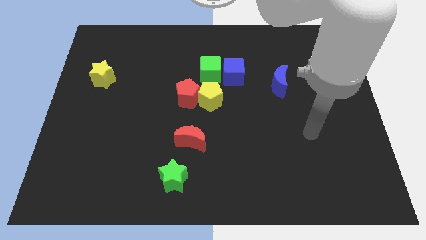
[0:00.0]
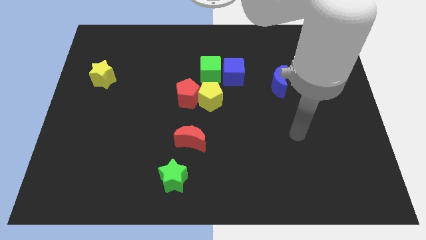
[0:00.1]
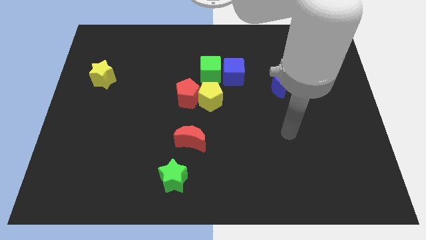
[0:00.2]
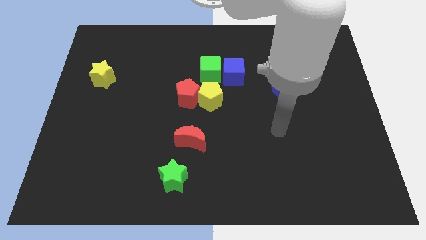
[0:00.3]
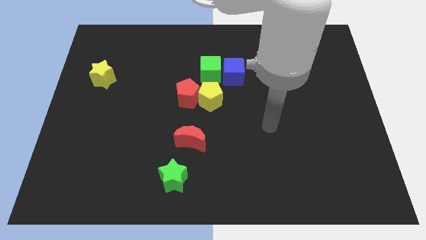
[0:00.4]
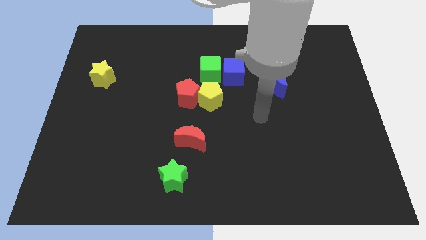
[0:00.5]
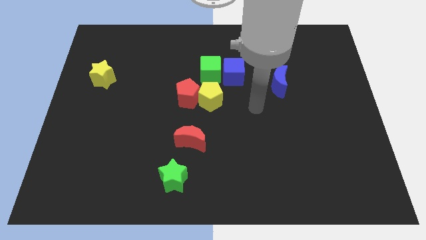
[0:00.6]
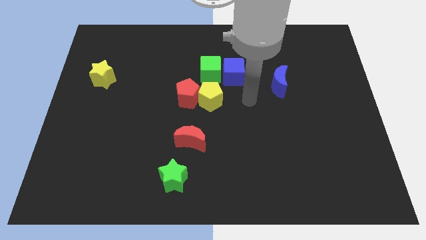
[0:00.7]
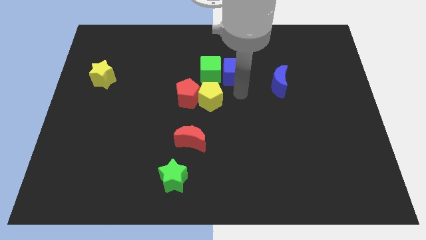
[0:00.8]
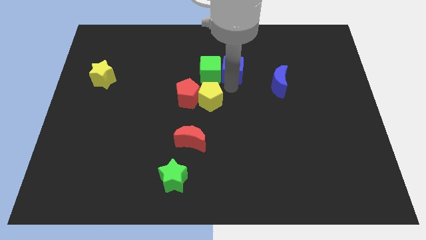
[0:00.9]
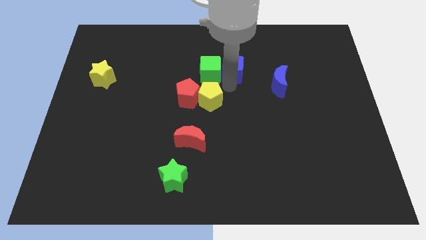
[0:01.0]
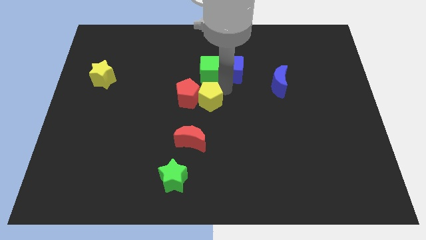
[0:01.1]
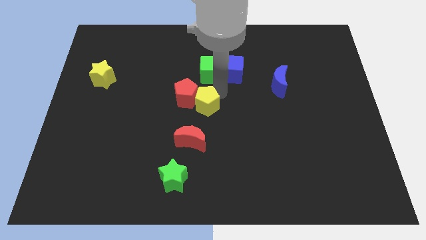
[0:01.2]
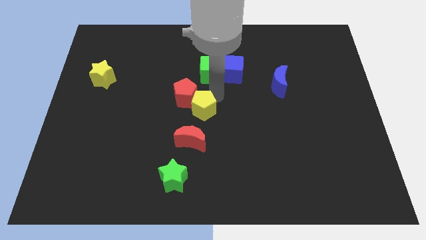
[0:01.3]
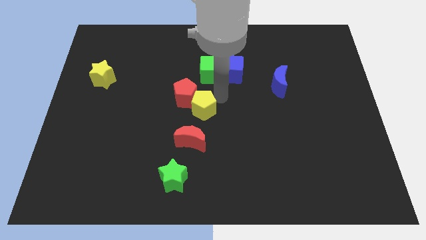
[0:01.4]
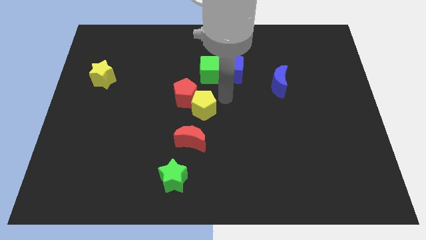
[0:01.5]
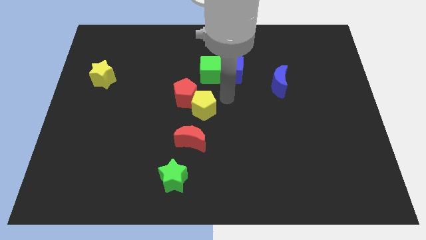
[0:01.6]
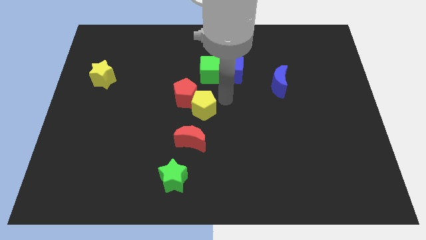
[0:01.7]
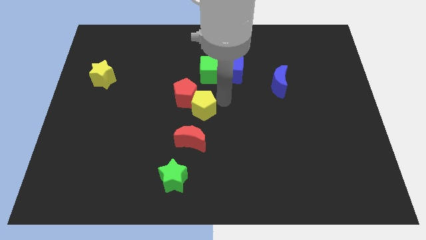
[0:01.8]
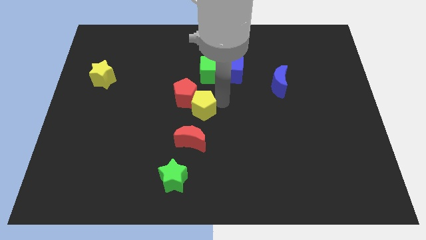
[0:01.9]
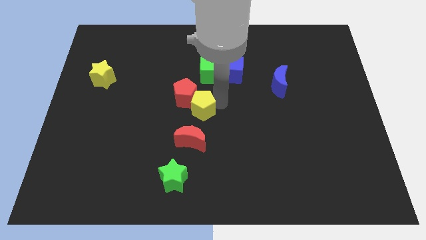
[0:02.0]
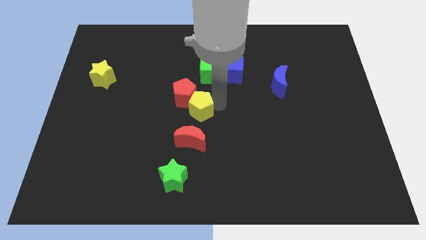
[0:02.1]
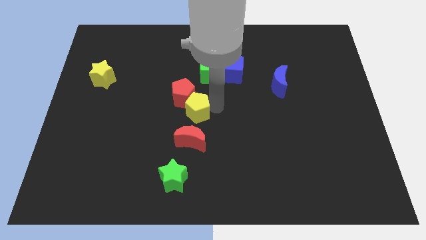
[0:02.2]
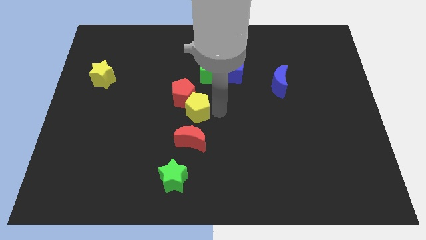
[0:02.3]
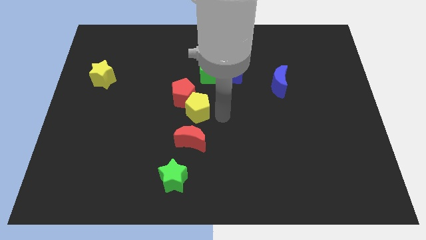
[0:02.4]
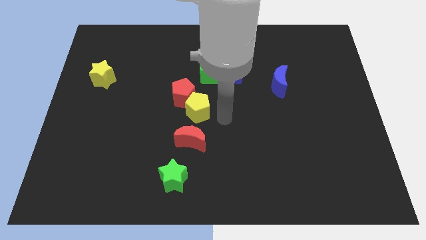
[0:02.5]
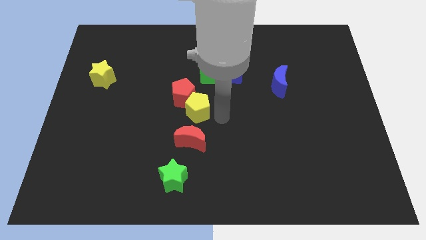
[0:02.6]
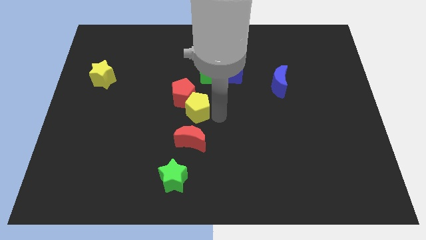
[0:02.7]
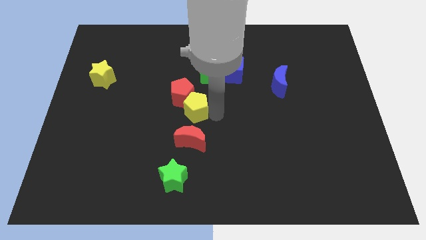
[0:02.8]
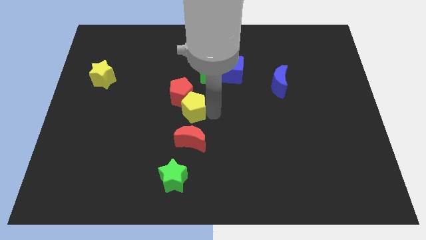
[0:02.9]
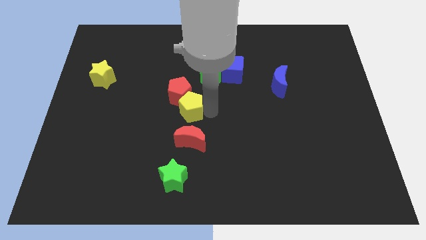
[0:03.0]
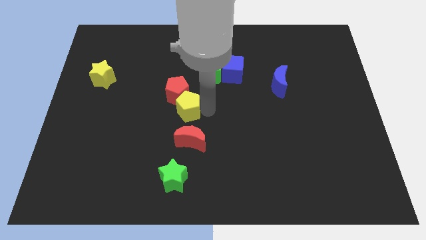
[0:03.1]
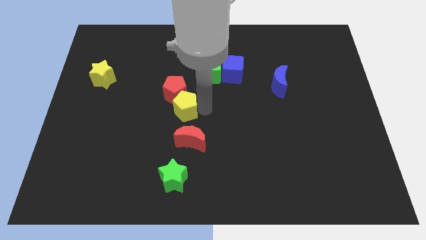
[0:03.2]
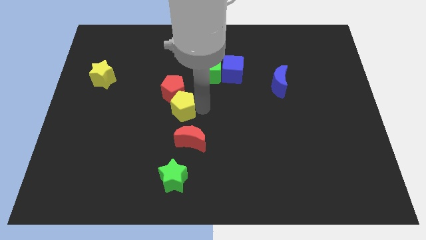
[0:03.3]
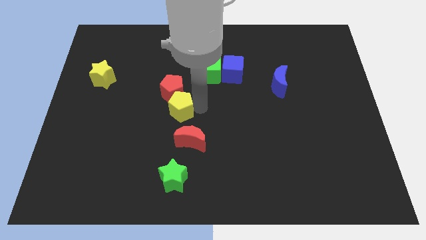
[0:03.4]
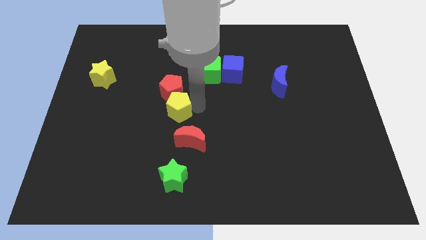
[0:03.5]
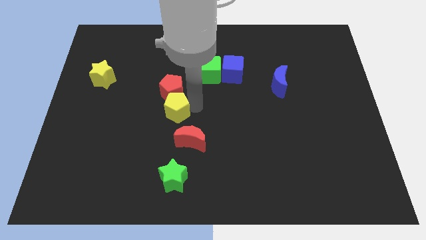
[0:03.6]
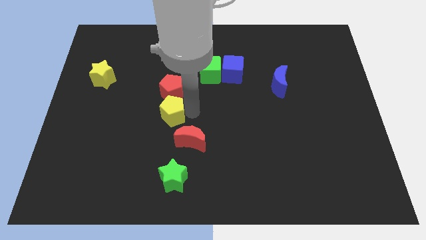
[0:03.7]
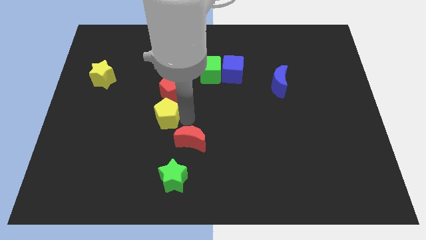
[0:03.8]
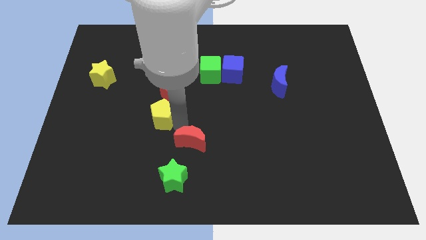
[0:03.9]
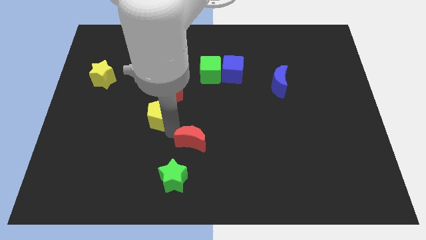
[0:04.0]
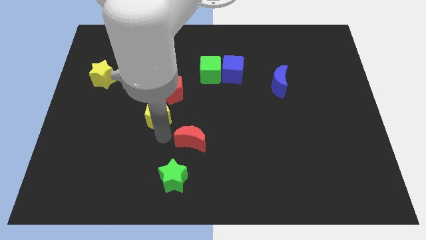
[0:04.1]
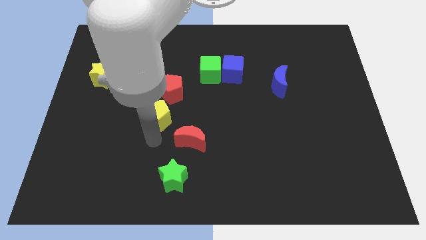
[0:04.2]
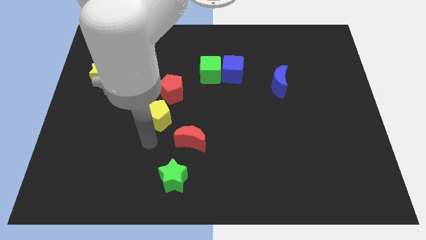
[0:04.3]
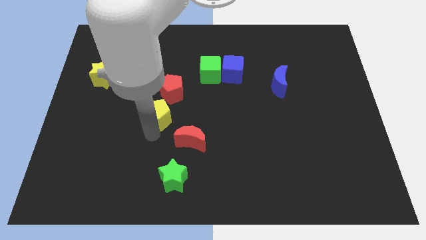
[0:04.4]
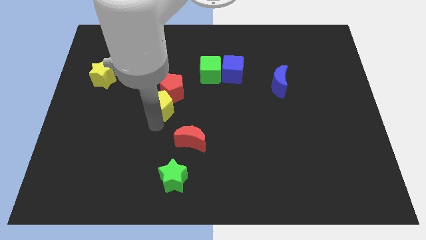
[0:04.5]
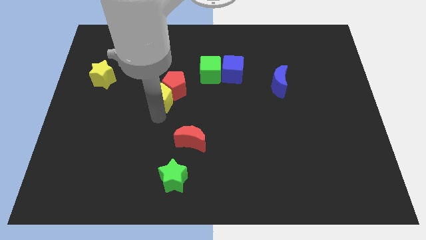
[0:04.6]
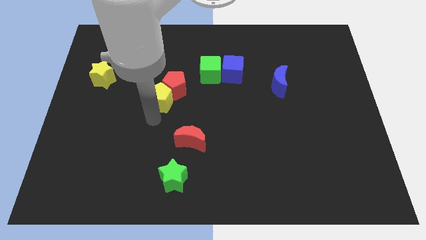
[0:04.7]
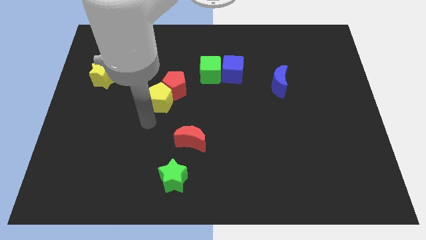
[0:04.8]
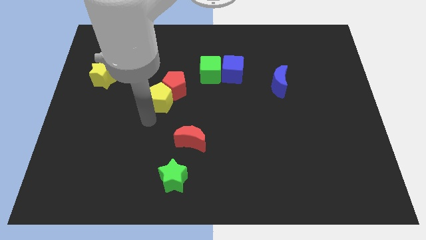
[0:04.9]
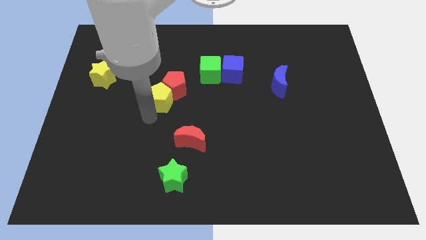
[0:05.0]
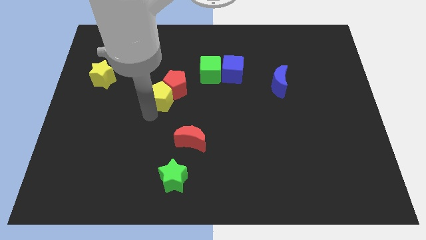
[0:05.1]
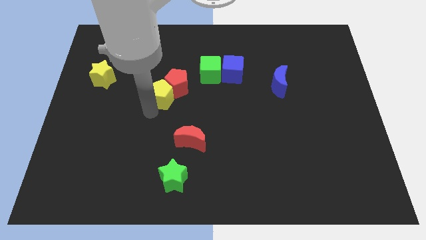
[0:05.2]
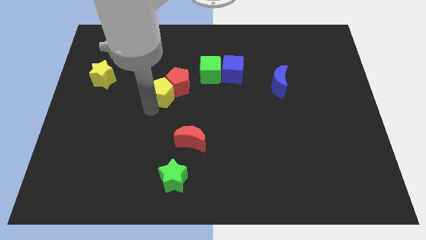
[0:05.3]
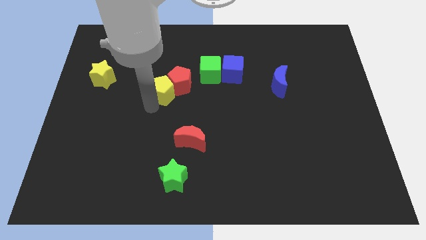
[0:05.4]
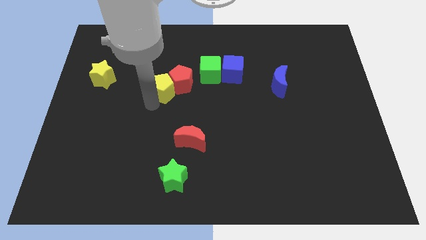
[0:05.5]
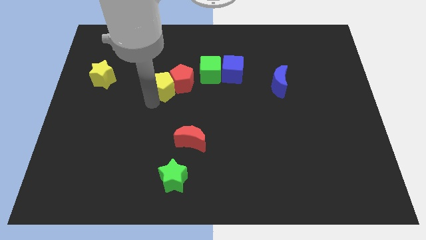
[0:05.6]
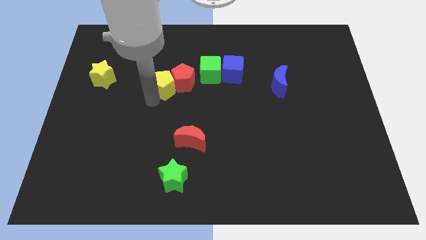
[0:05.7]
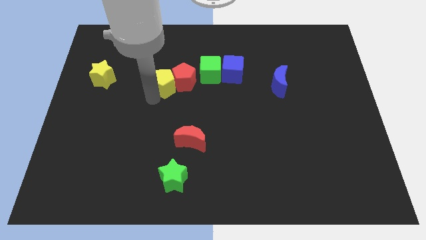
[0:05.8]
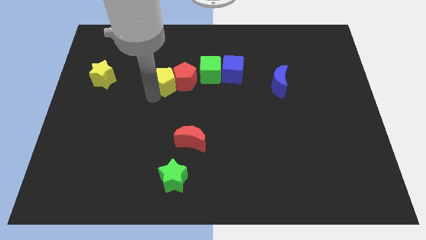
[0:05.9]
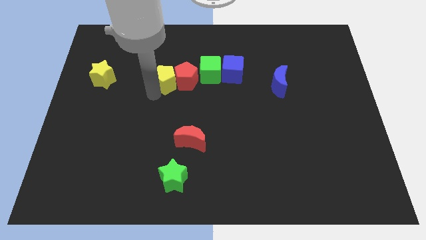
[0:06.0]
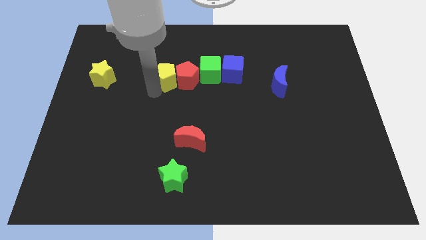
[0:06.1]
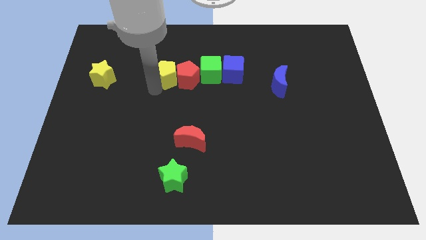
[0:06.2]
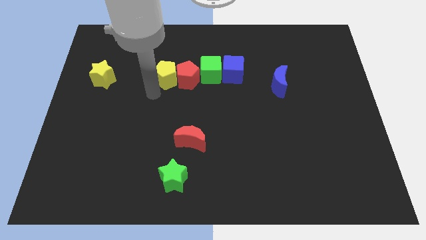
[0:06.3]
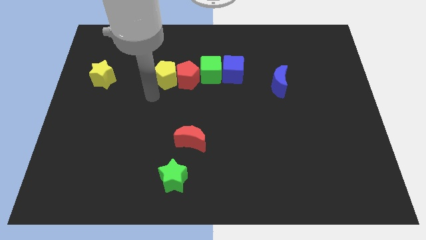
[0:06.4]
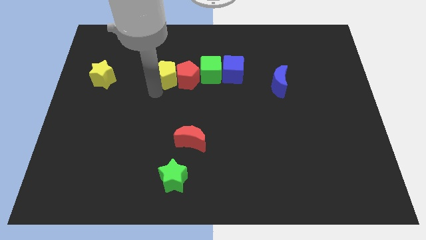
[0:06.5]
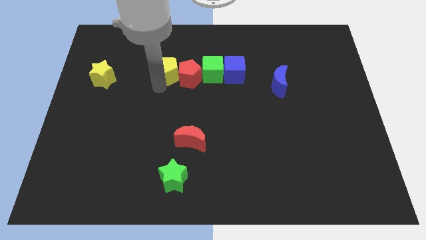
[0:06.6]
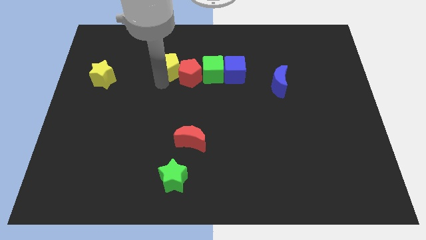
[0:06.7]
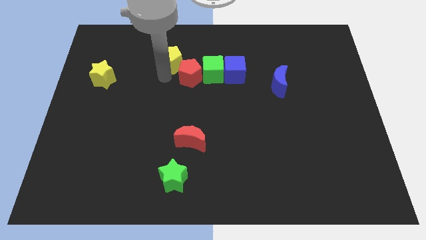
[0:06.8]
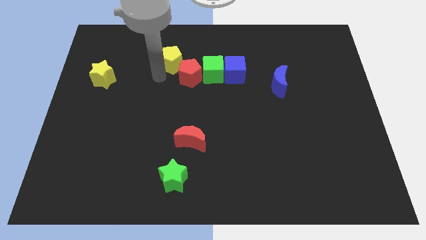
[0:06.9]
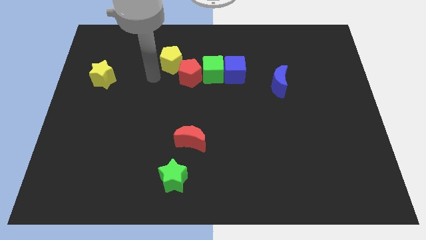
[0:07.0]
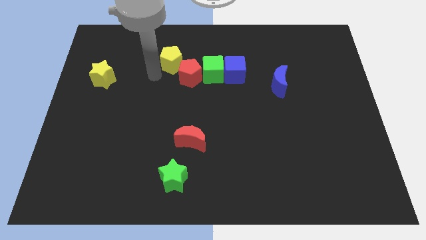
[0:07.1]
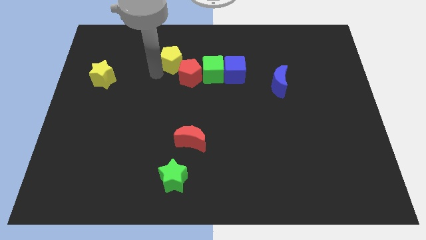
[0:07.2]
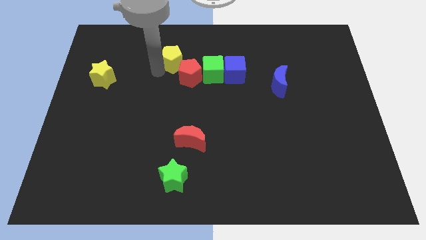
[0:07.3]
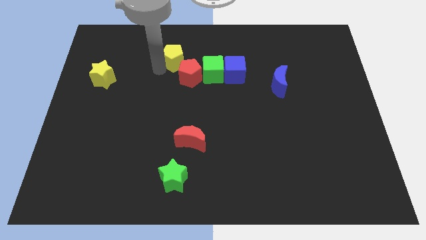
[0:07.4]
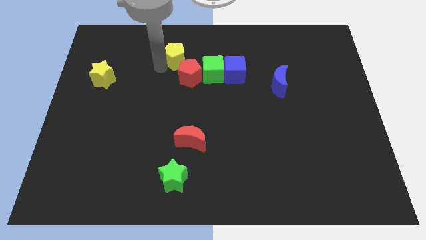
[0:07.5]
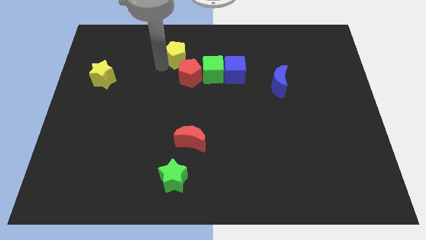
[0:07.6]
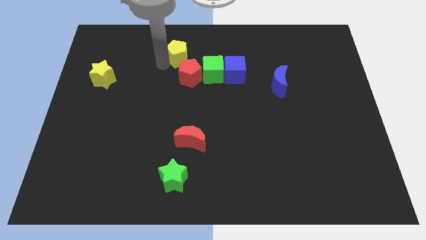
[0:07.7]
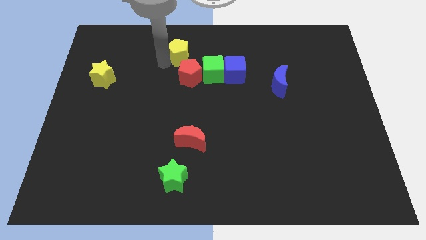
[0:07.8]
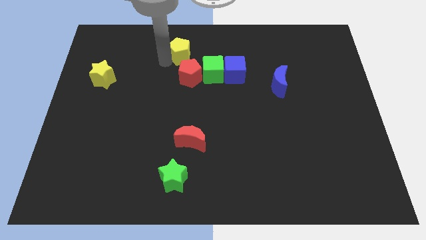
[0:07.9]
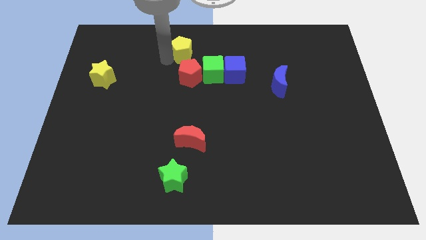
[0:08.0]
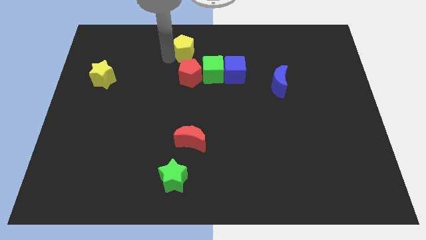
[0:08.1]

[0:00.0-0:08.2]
push the yellow pentagon to the top
